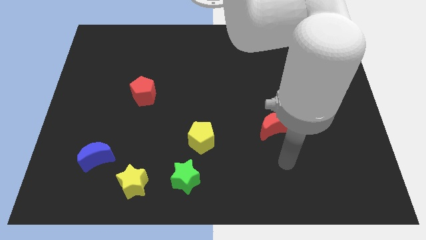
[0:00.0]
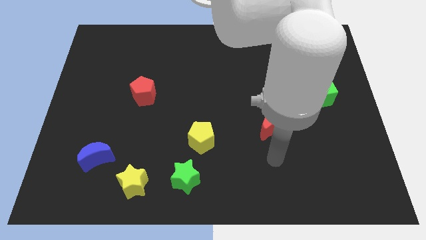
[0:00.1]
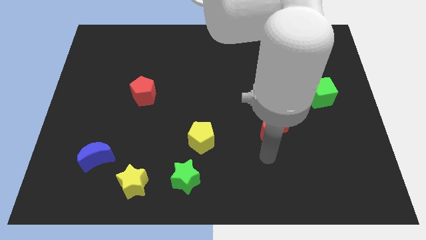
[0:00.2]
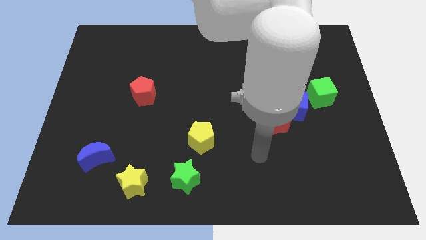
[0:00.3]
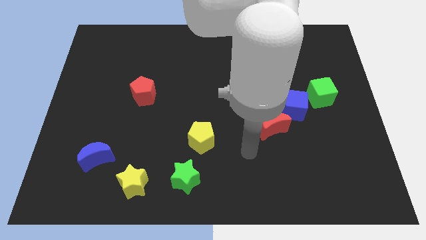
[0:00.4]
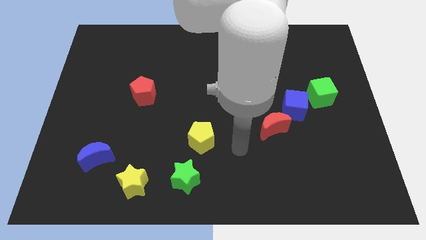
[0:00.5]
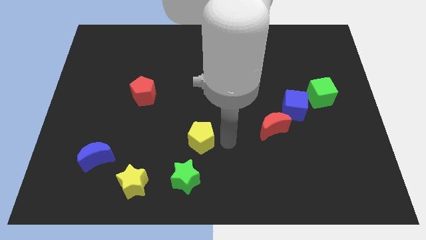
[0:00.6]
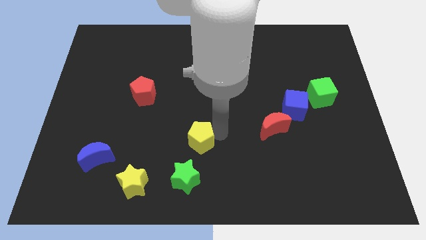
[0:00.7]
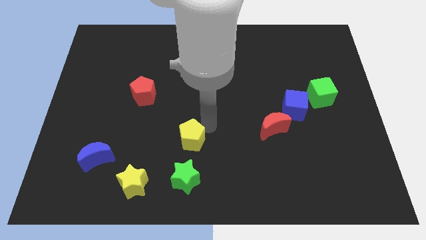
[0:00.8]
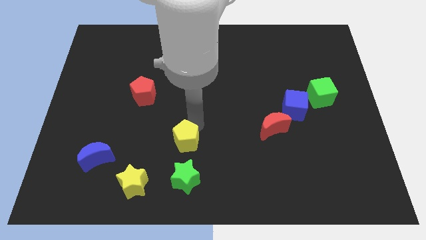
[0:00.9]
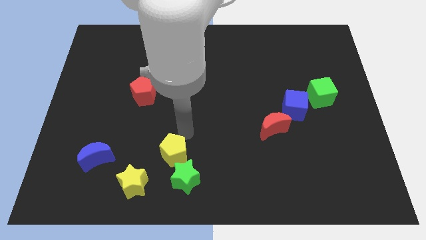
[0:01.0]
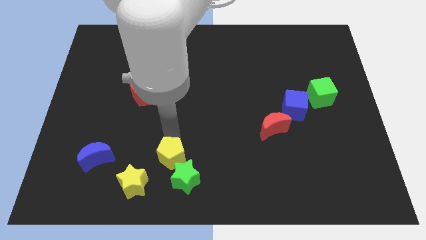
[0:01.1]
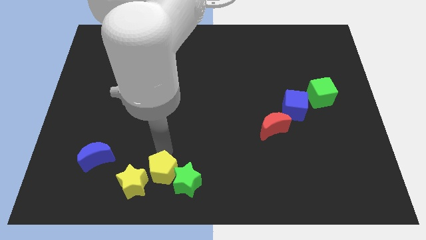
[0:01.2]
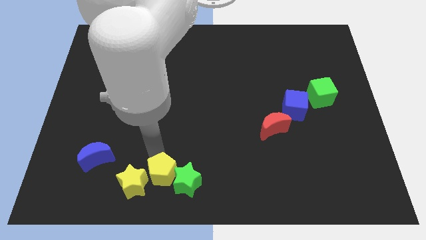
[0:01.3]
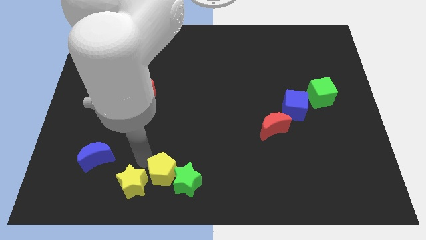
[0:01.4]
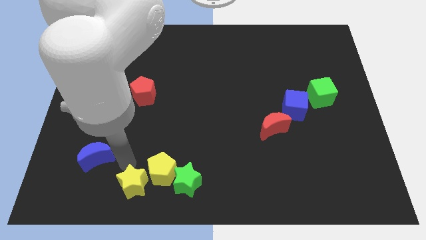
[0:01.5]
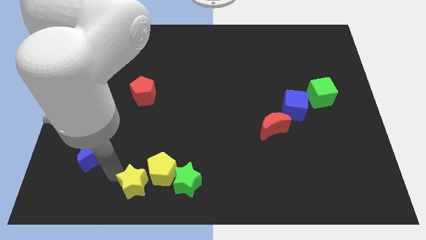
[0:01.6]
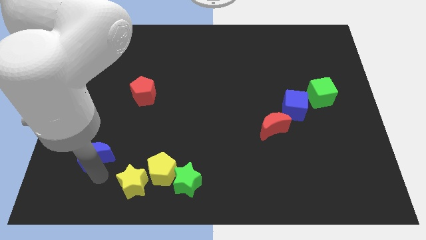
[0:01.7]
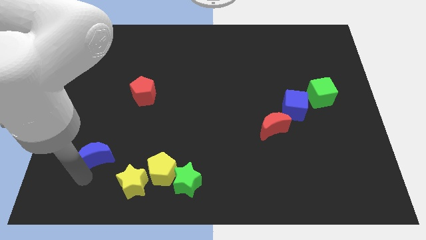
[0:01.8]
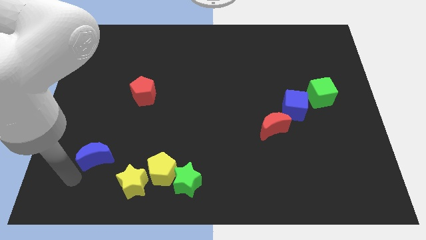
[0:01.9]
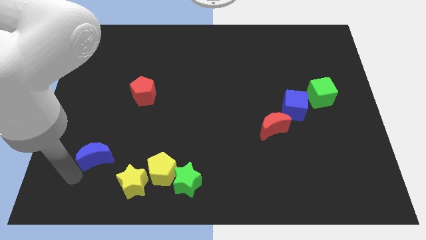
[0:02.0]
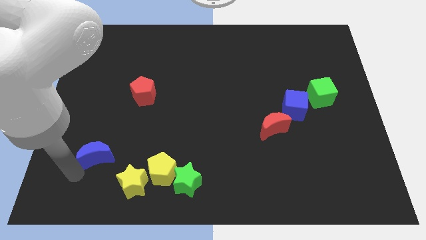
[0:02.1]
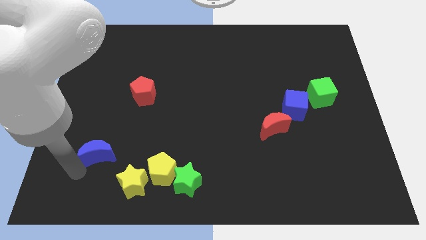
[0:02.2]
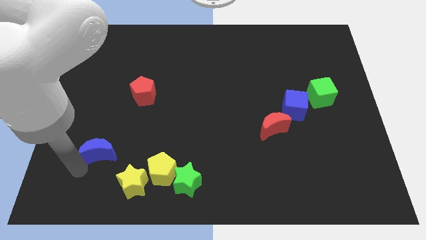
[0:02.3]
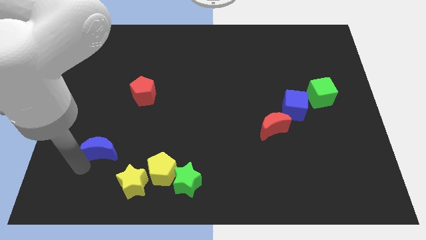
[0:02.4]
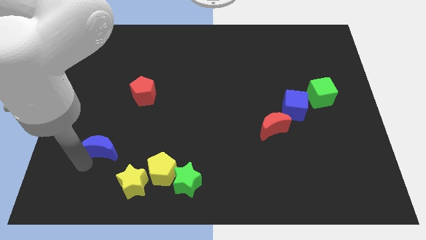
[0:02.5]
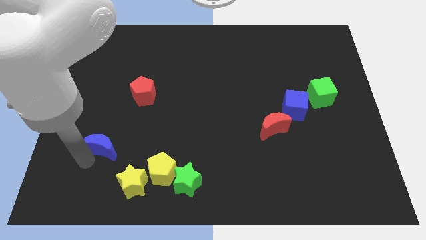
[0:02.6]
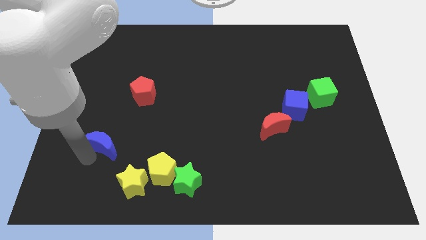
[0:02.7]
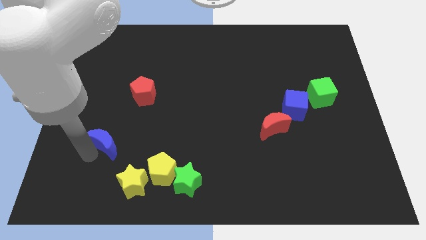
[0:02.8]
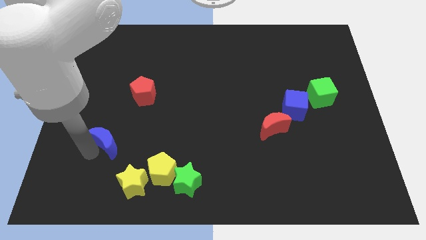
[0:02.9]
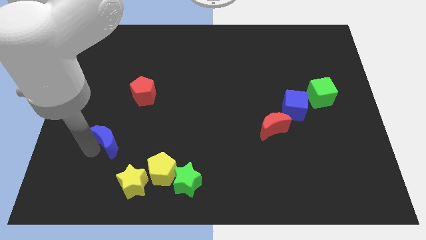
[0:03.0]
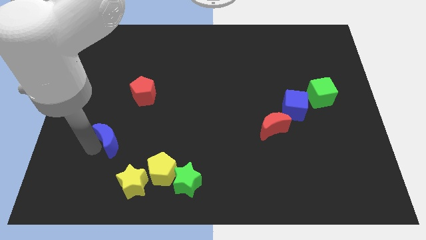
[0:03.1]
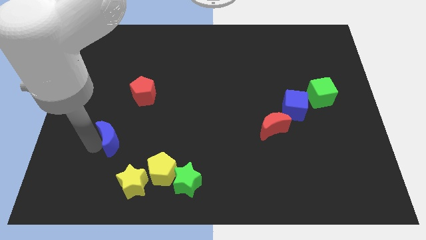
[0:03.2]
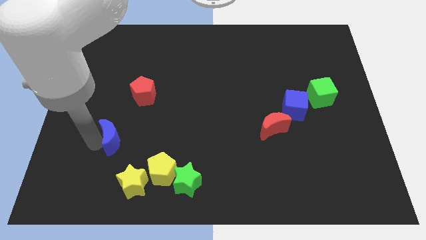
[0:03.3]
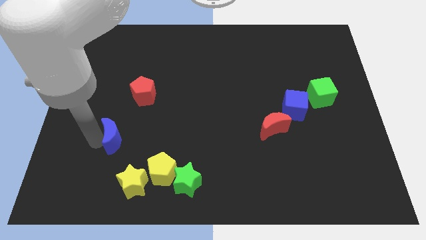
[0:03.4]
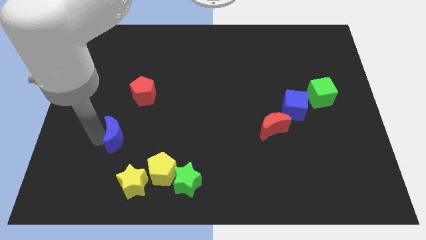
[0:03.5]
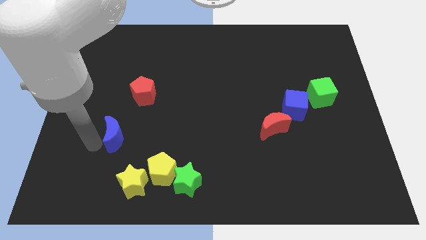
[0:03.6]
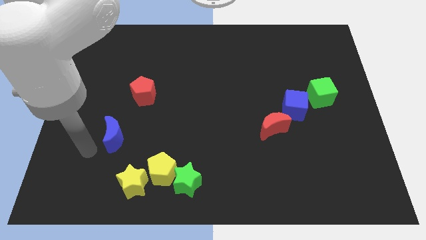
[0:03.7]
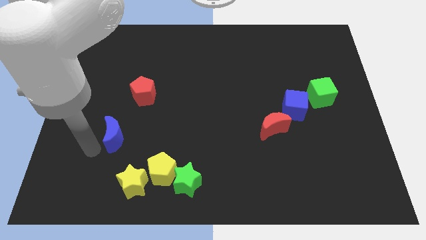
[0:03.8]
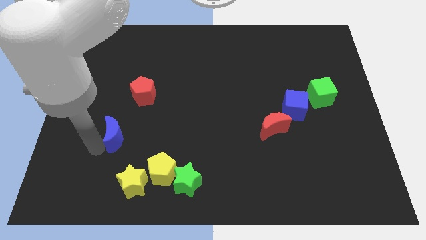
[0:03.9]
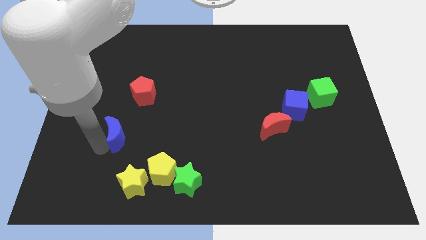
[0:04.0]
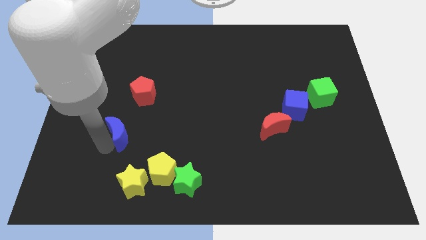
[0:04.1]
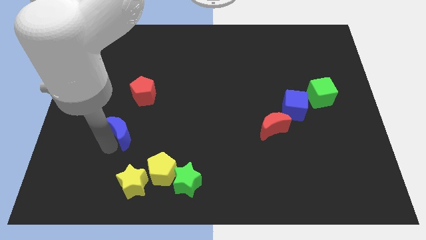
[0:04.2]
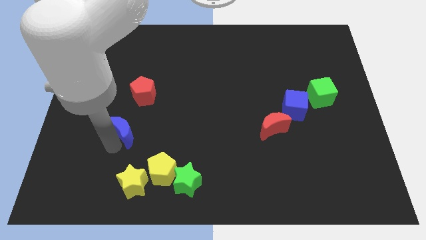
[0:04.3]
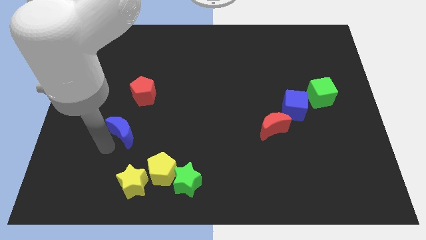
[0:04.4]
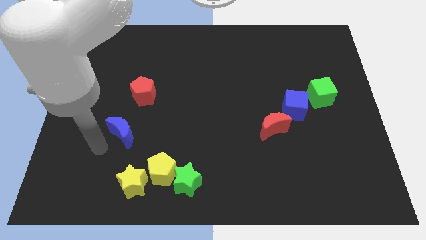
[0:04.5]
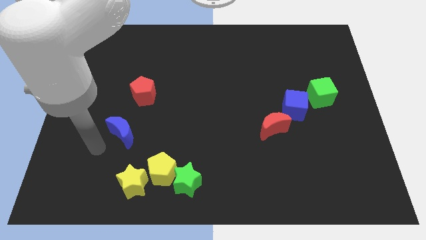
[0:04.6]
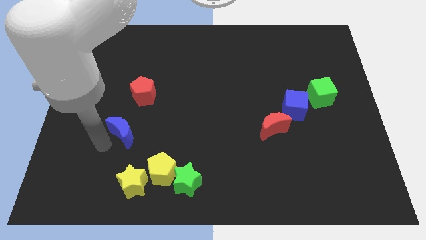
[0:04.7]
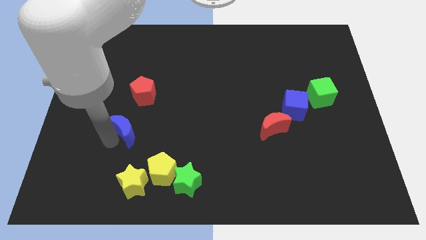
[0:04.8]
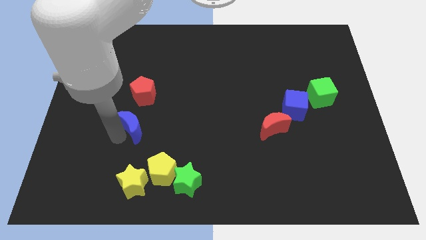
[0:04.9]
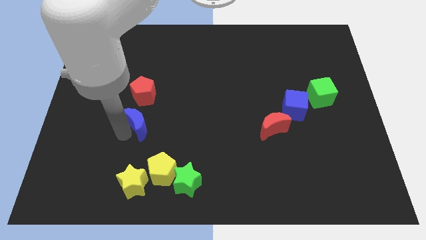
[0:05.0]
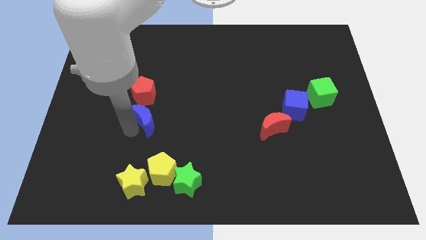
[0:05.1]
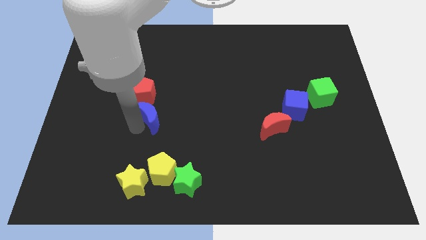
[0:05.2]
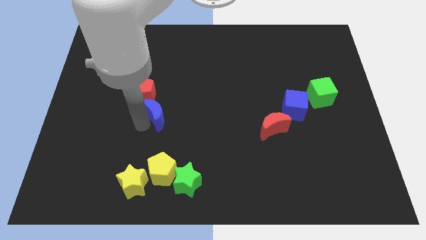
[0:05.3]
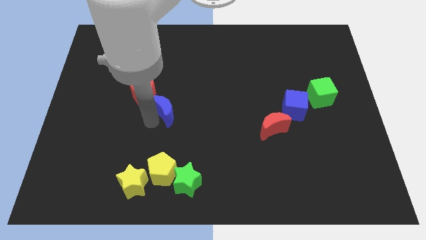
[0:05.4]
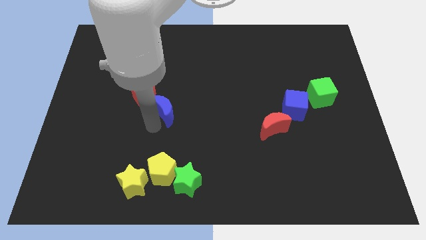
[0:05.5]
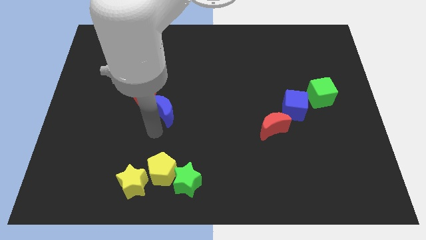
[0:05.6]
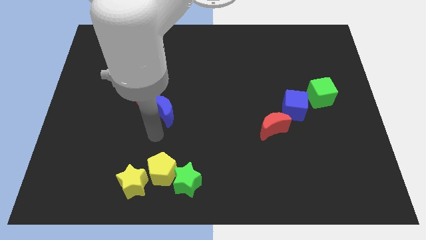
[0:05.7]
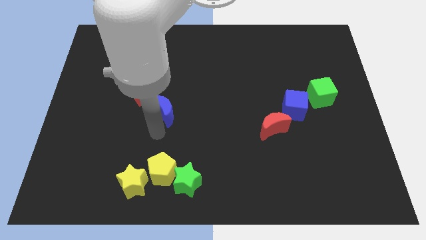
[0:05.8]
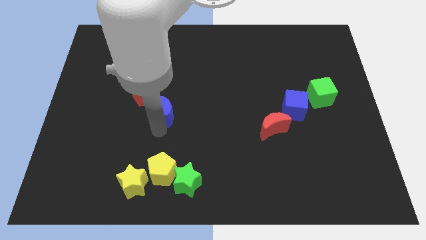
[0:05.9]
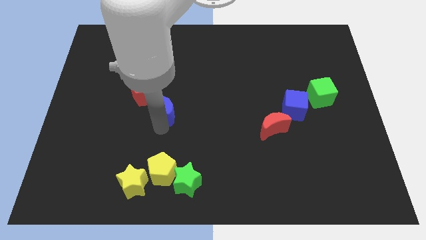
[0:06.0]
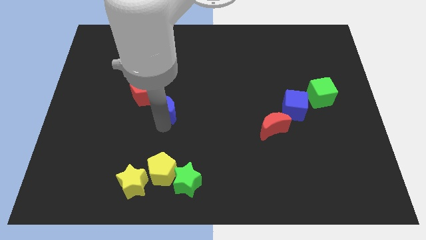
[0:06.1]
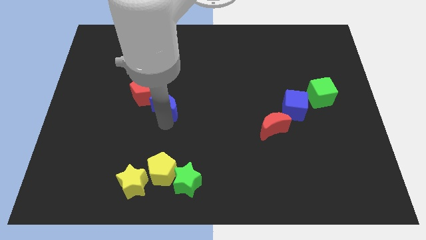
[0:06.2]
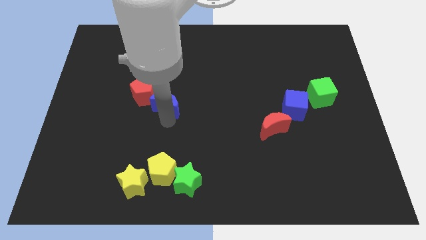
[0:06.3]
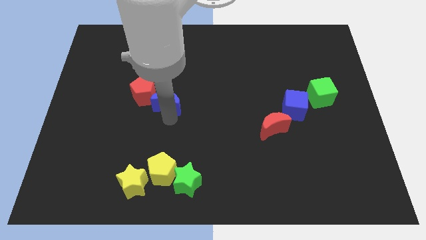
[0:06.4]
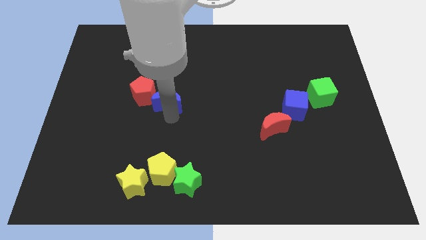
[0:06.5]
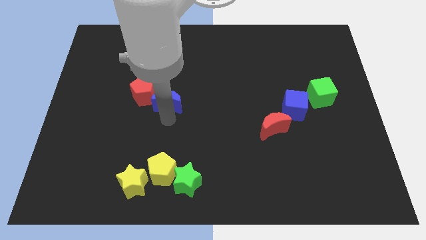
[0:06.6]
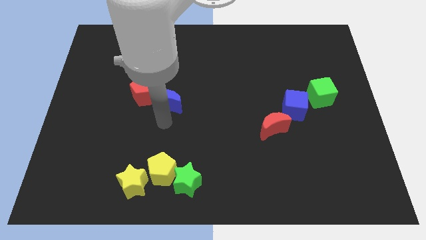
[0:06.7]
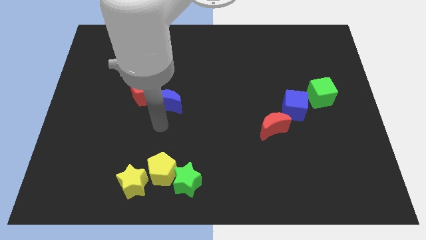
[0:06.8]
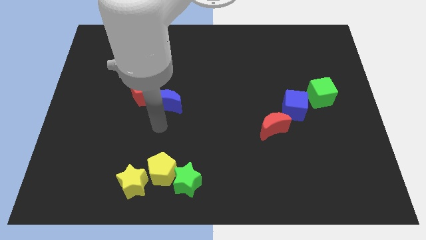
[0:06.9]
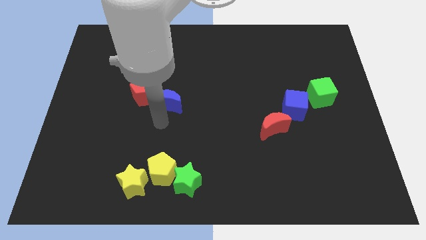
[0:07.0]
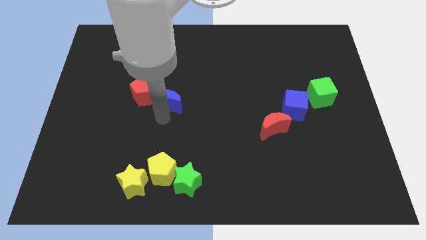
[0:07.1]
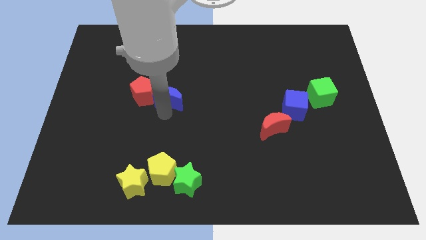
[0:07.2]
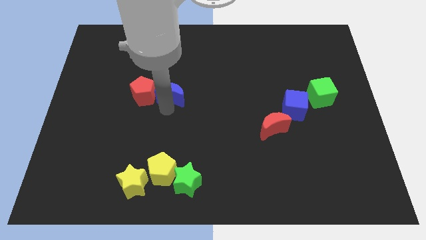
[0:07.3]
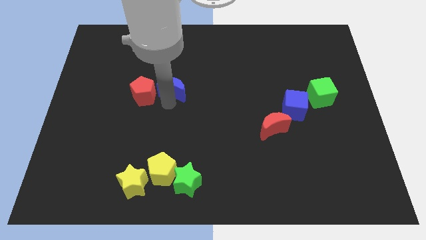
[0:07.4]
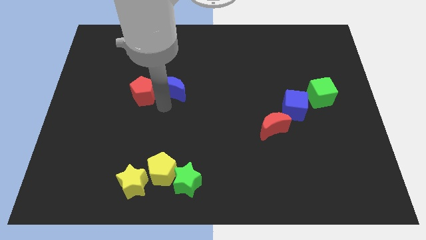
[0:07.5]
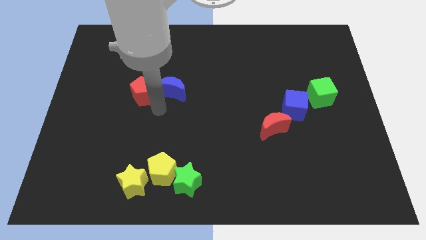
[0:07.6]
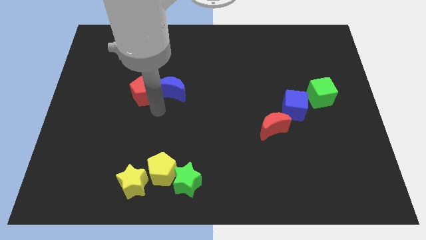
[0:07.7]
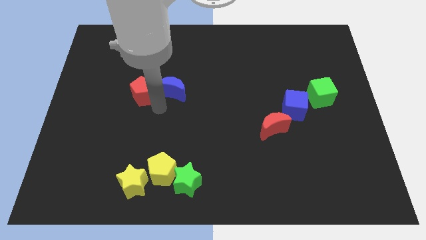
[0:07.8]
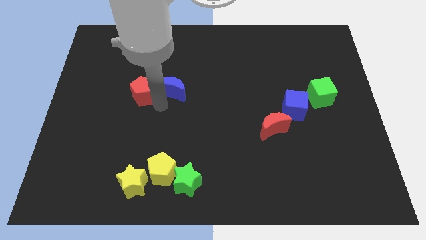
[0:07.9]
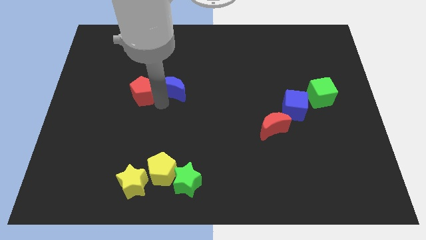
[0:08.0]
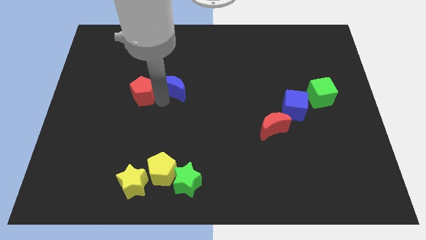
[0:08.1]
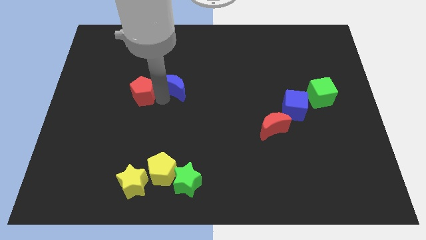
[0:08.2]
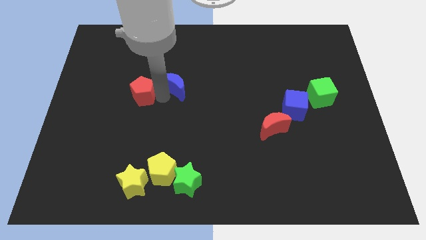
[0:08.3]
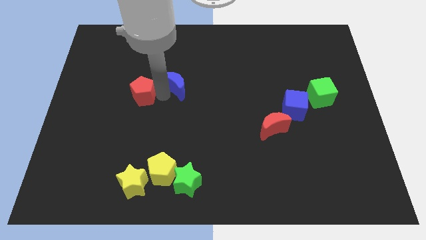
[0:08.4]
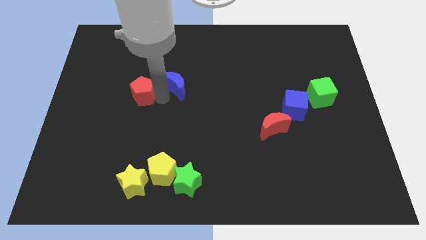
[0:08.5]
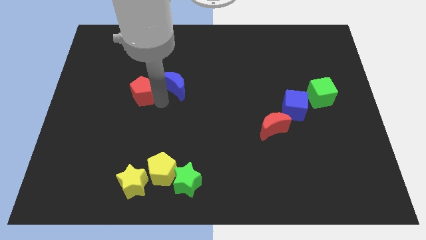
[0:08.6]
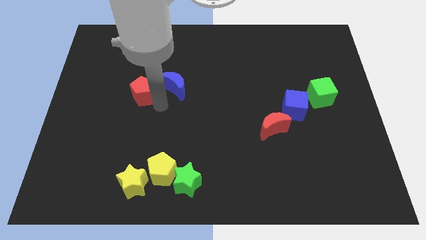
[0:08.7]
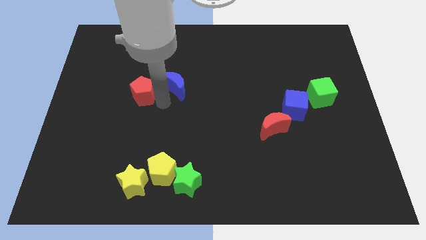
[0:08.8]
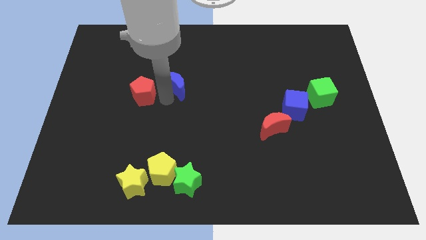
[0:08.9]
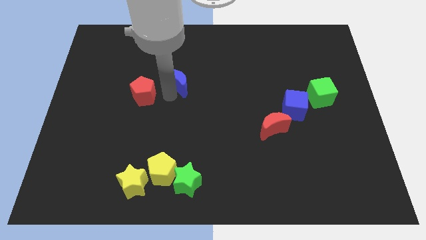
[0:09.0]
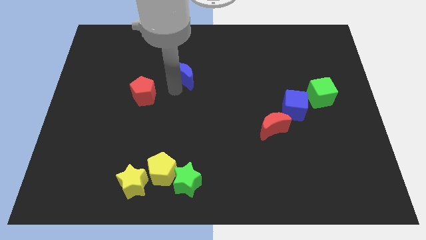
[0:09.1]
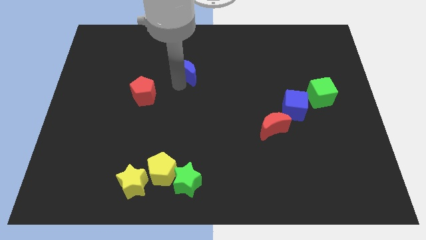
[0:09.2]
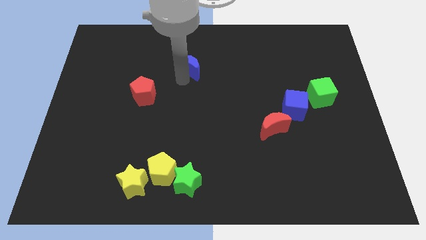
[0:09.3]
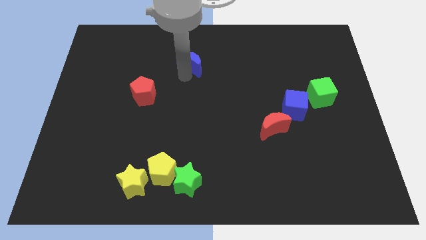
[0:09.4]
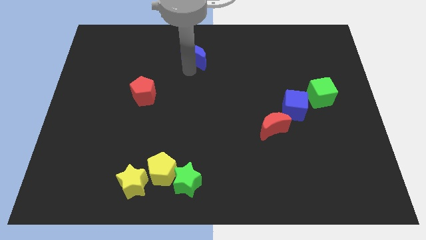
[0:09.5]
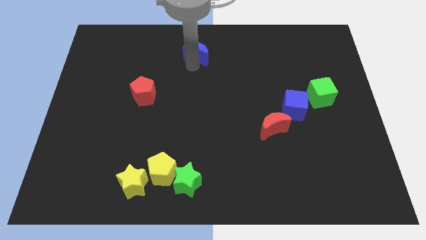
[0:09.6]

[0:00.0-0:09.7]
slide the blue moon to the top side
